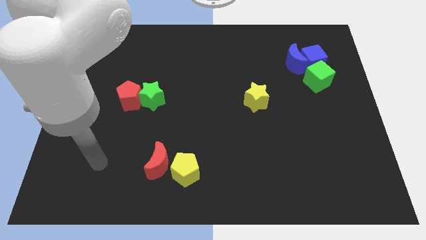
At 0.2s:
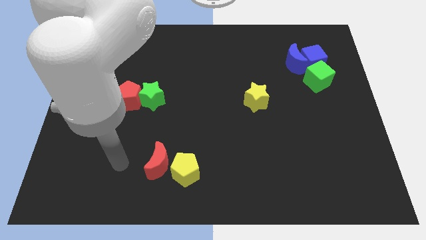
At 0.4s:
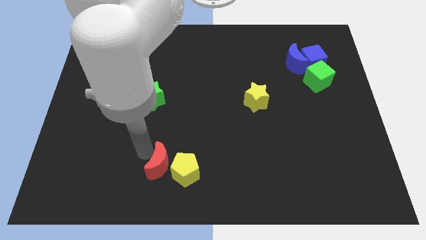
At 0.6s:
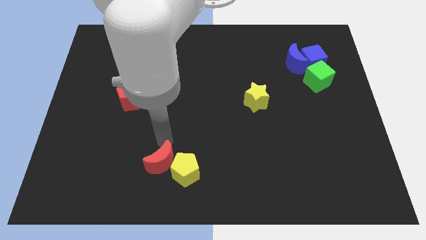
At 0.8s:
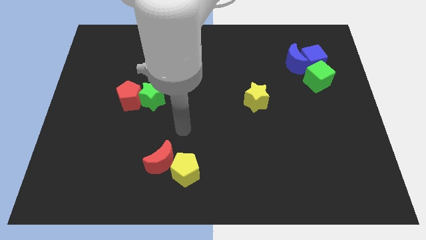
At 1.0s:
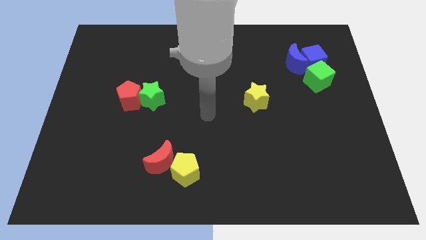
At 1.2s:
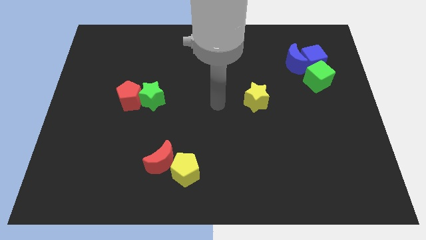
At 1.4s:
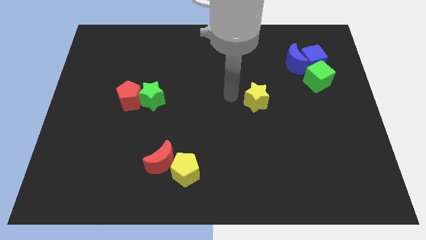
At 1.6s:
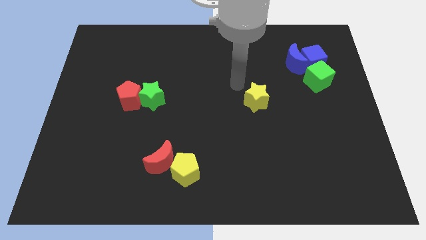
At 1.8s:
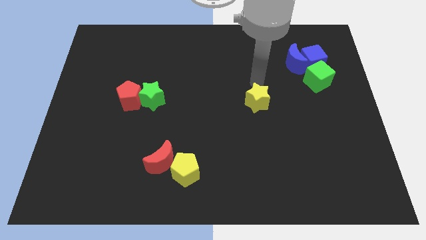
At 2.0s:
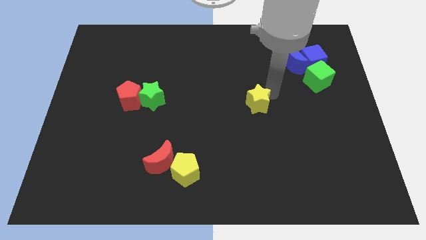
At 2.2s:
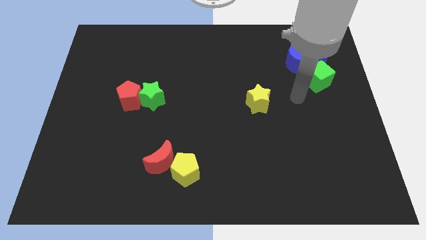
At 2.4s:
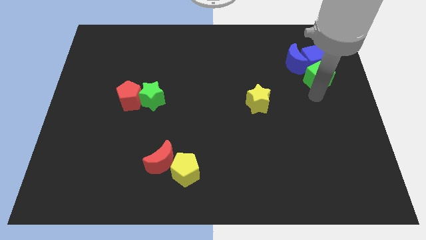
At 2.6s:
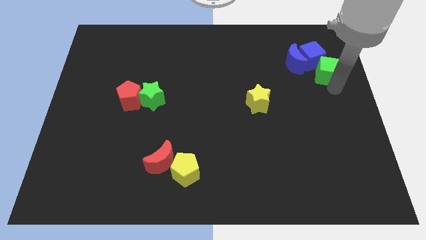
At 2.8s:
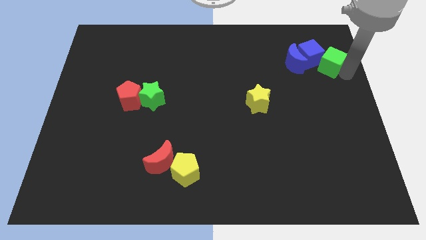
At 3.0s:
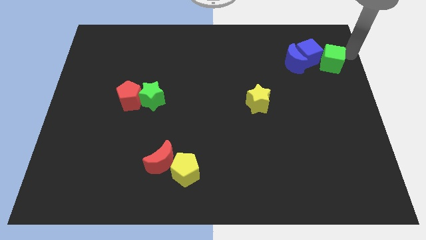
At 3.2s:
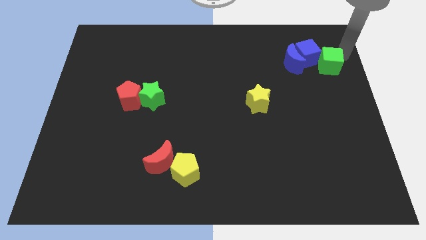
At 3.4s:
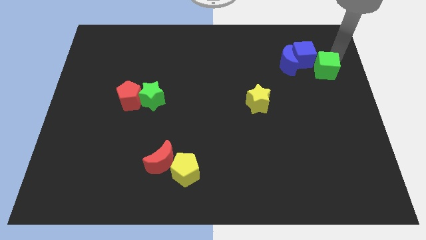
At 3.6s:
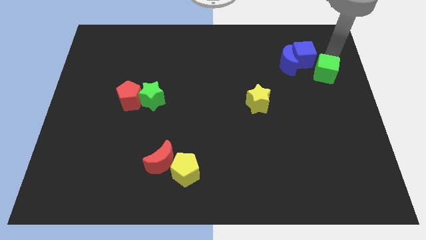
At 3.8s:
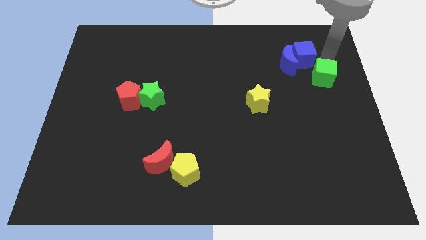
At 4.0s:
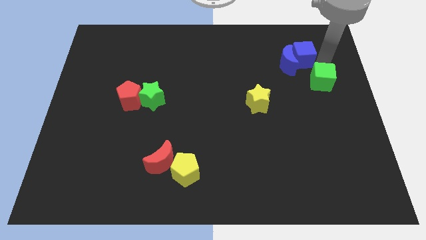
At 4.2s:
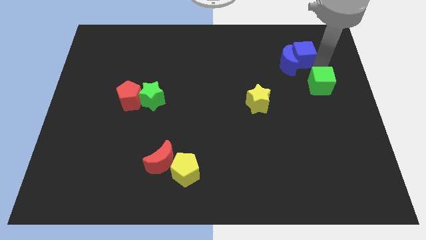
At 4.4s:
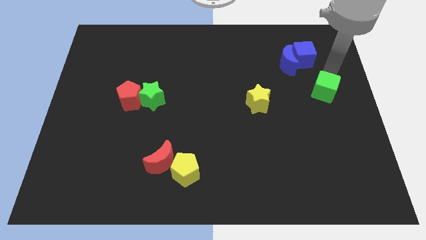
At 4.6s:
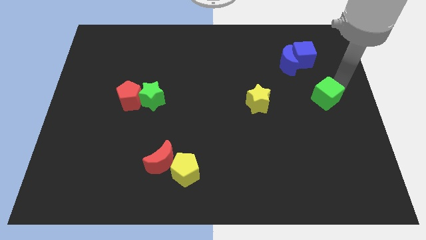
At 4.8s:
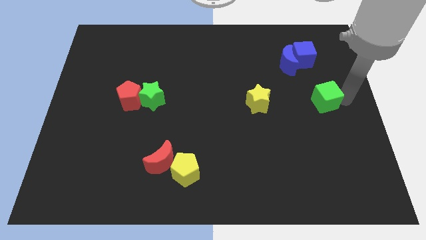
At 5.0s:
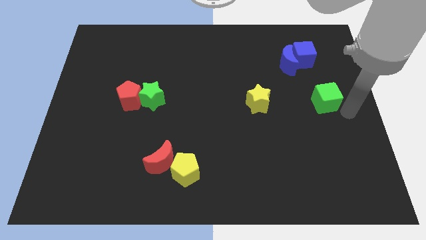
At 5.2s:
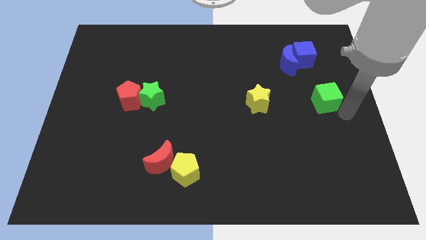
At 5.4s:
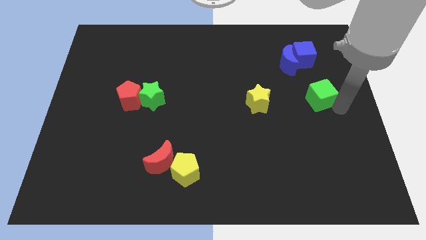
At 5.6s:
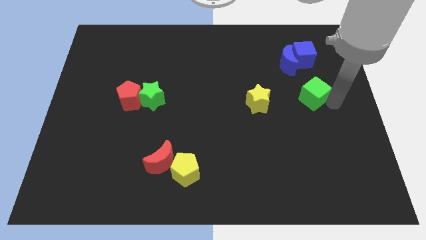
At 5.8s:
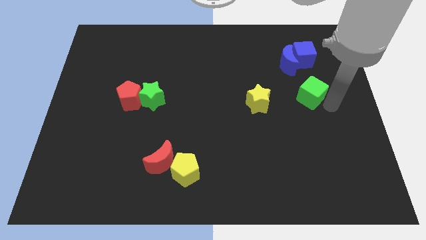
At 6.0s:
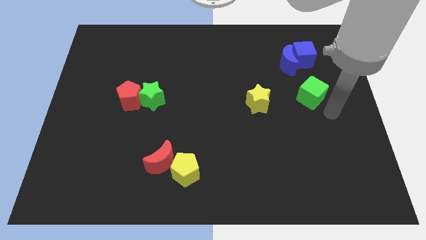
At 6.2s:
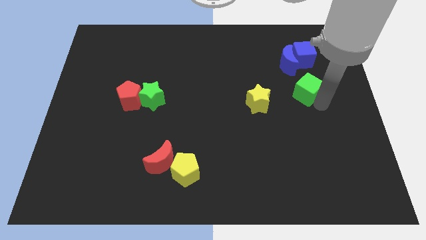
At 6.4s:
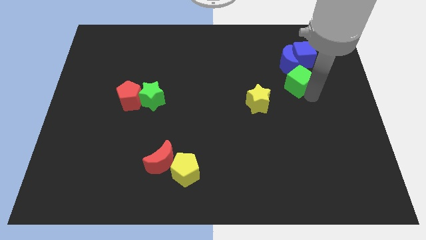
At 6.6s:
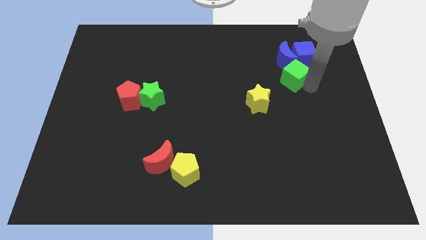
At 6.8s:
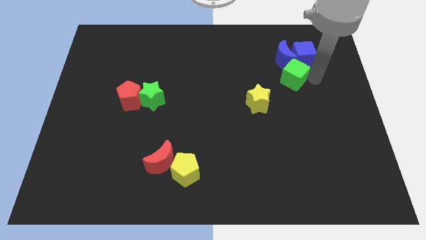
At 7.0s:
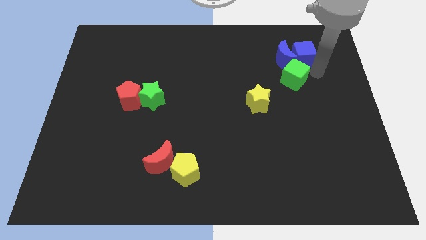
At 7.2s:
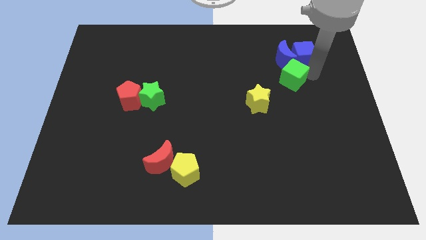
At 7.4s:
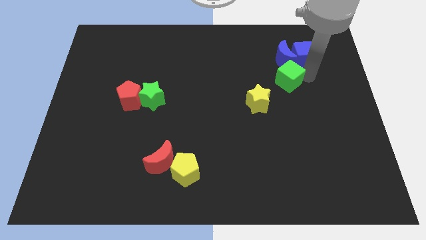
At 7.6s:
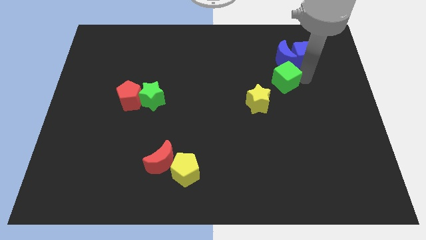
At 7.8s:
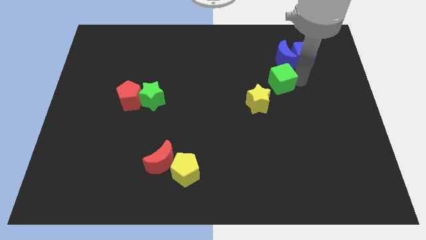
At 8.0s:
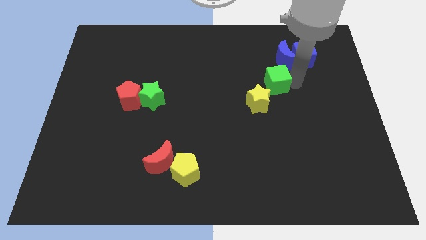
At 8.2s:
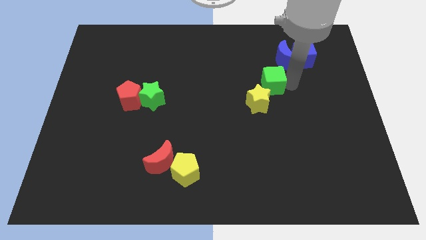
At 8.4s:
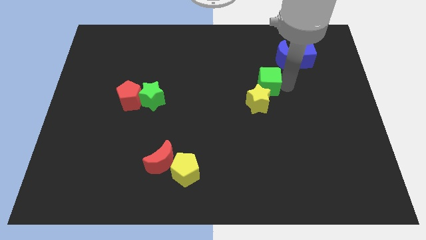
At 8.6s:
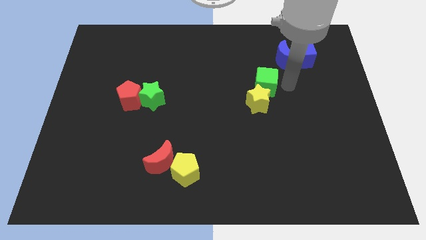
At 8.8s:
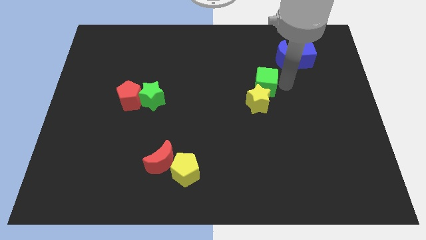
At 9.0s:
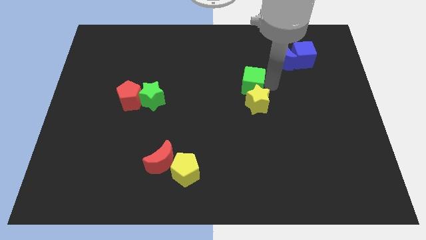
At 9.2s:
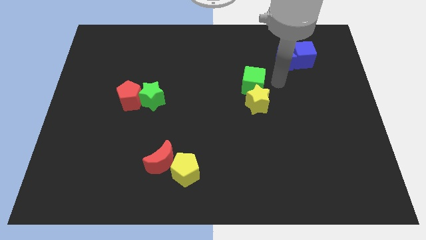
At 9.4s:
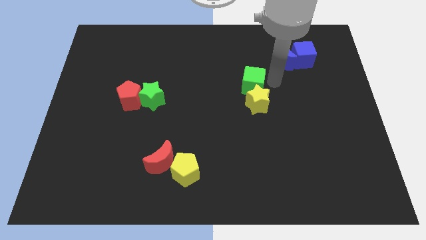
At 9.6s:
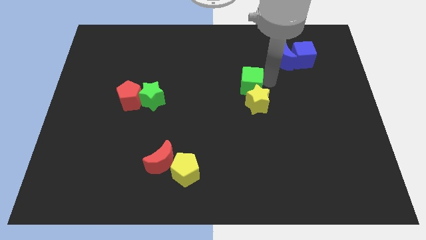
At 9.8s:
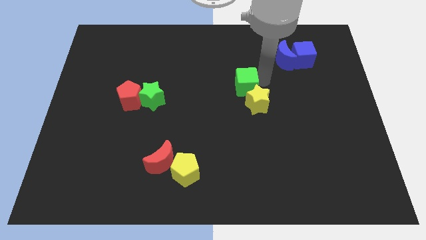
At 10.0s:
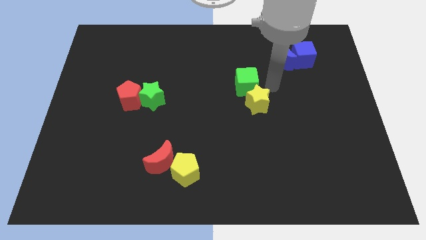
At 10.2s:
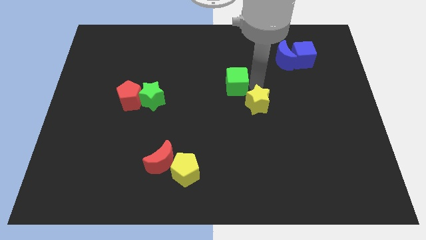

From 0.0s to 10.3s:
slide the green cube to the left

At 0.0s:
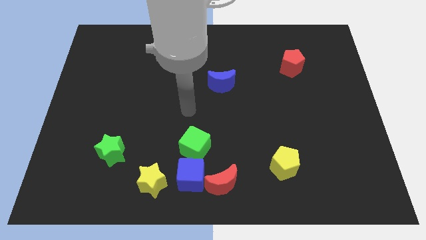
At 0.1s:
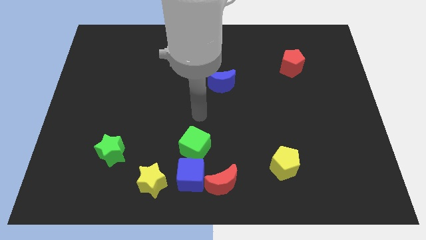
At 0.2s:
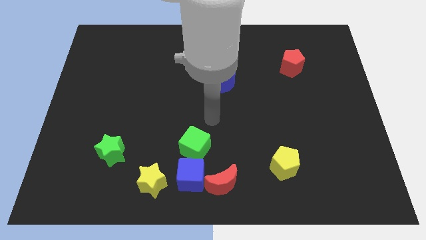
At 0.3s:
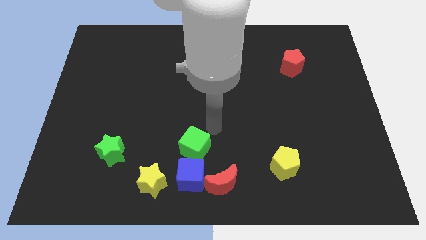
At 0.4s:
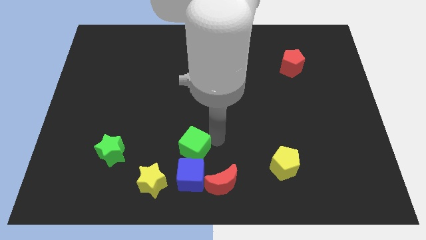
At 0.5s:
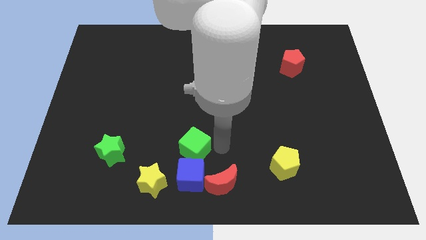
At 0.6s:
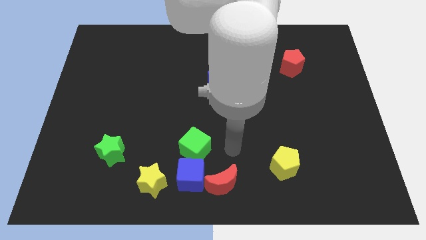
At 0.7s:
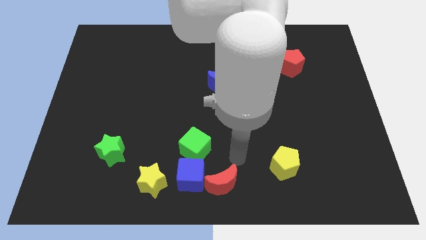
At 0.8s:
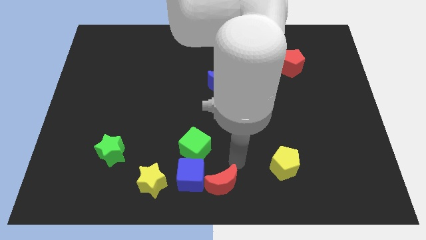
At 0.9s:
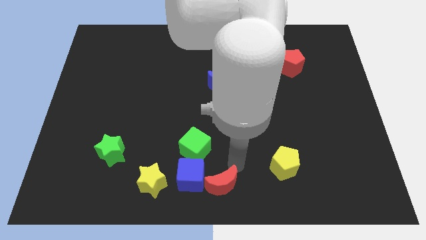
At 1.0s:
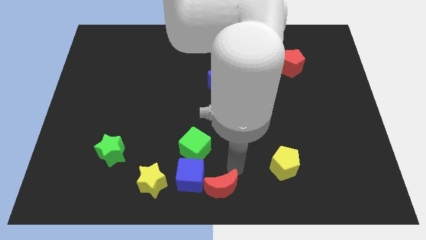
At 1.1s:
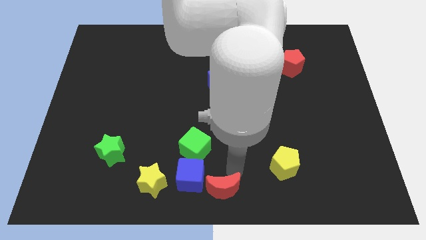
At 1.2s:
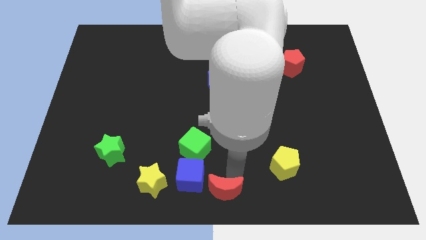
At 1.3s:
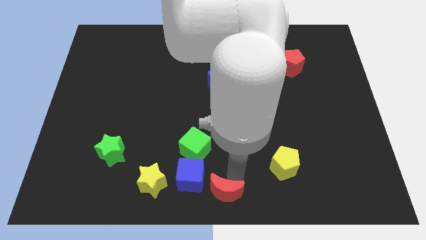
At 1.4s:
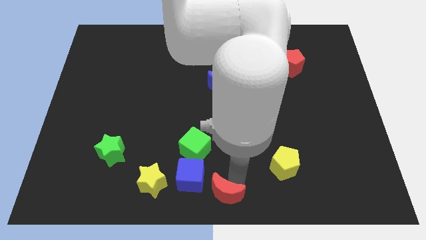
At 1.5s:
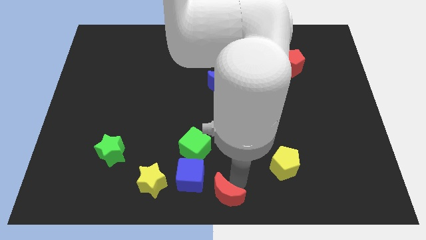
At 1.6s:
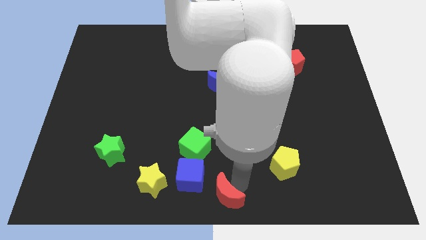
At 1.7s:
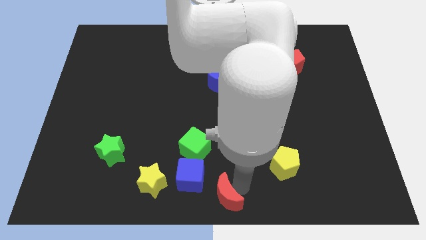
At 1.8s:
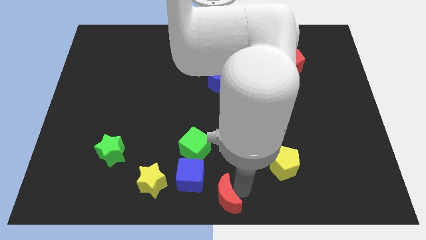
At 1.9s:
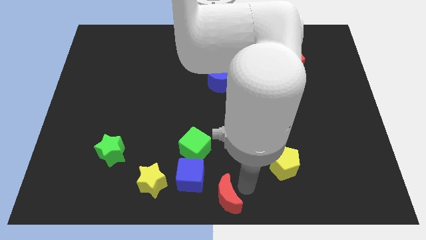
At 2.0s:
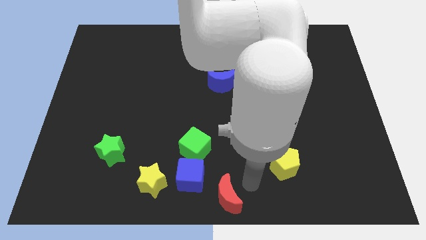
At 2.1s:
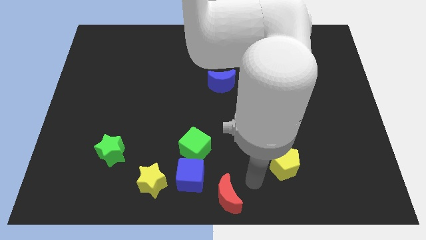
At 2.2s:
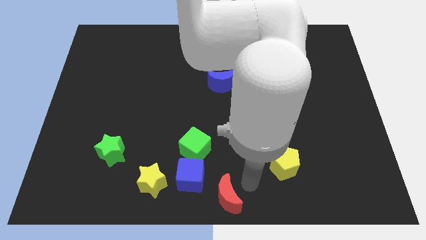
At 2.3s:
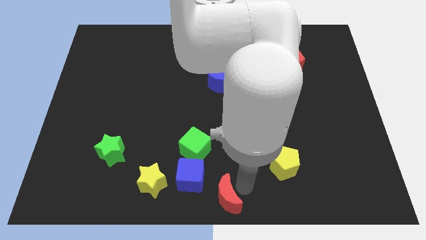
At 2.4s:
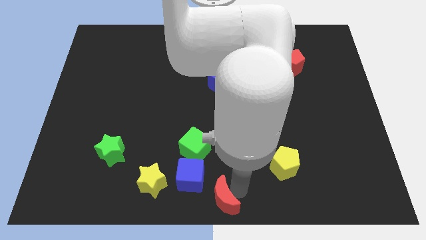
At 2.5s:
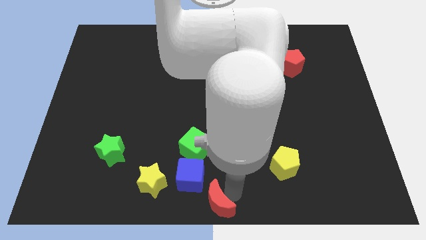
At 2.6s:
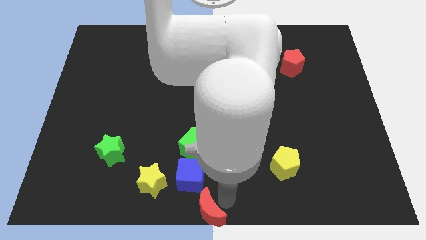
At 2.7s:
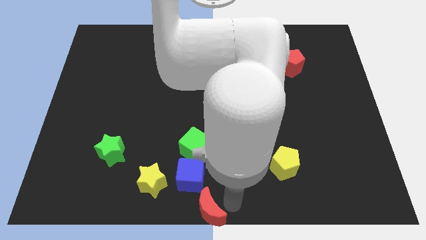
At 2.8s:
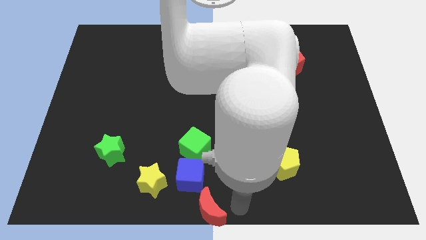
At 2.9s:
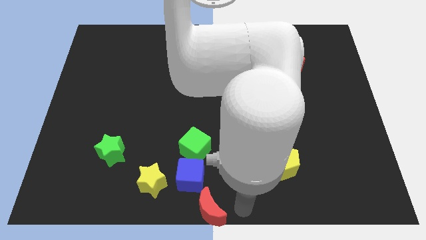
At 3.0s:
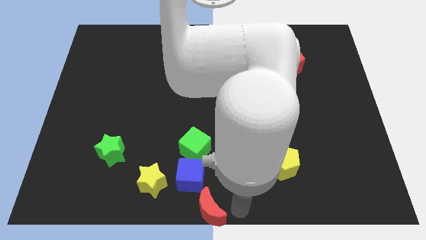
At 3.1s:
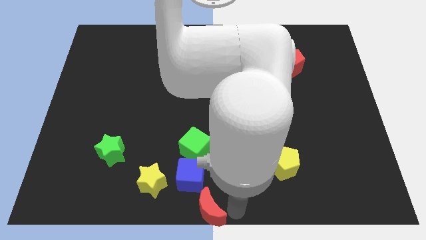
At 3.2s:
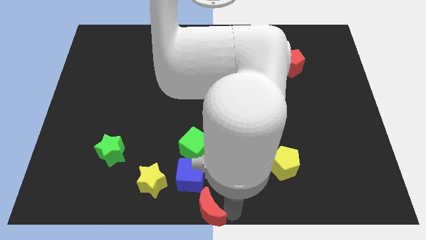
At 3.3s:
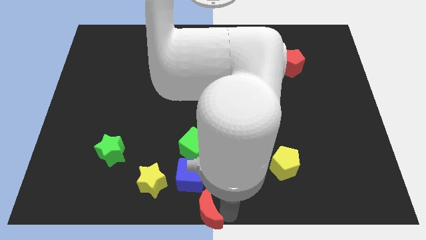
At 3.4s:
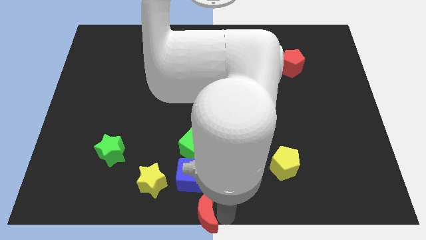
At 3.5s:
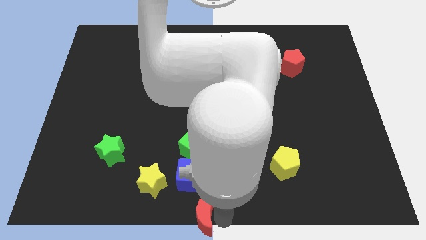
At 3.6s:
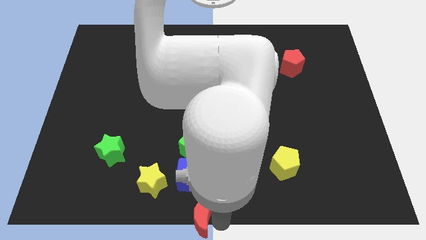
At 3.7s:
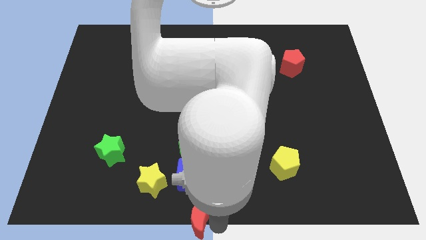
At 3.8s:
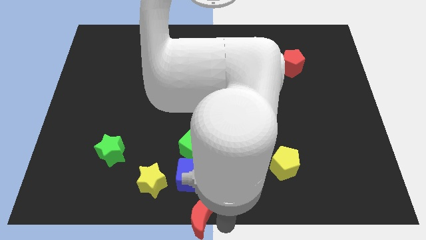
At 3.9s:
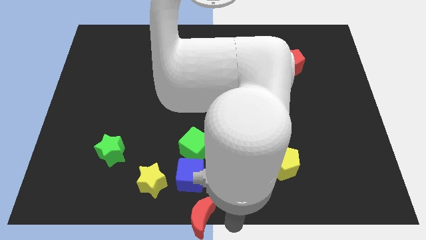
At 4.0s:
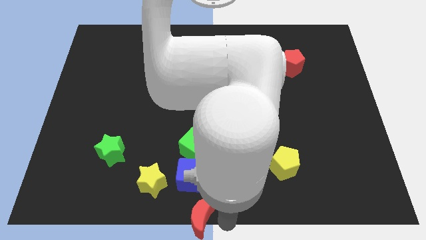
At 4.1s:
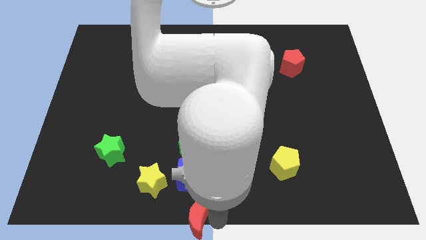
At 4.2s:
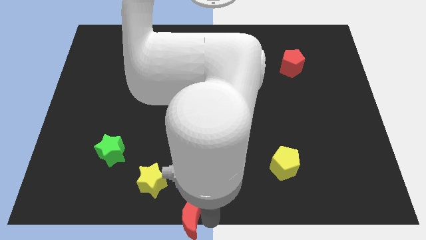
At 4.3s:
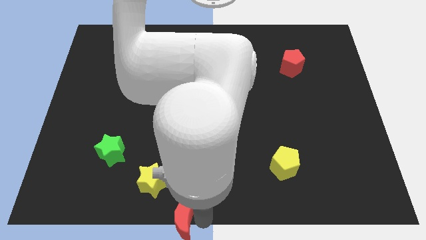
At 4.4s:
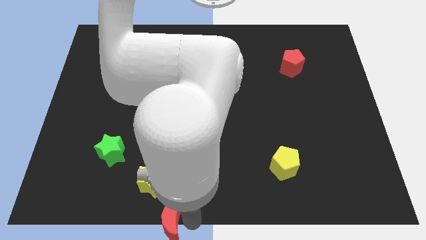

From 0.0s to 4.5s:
push the red moon to the left a bit
